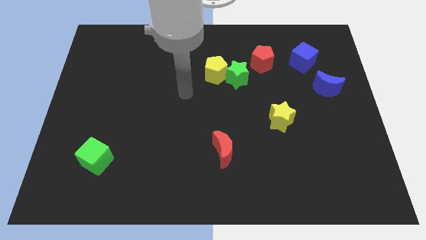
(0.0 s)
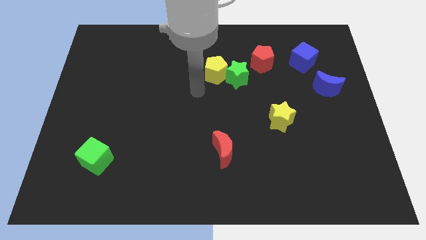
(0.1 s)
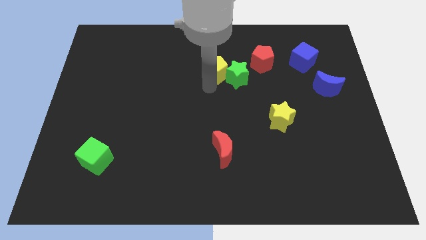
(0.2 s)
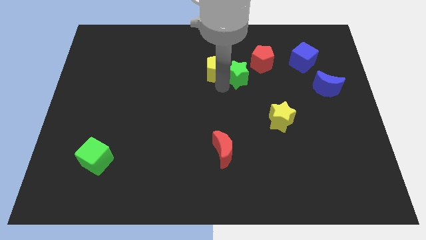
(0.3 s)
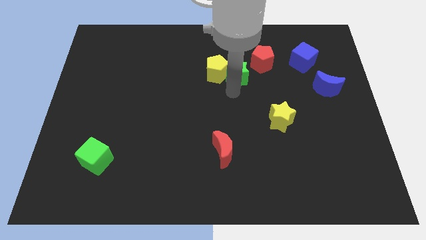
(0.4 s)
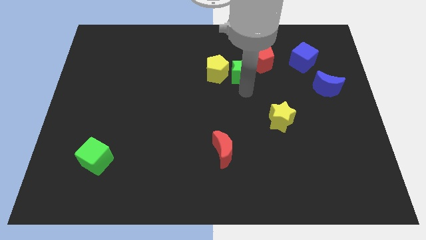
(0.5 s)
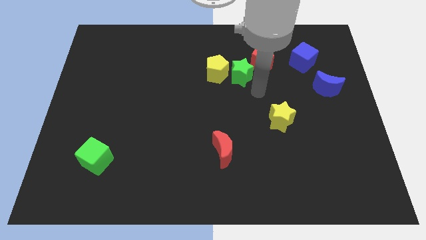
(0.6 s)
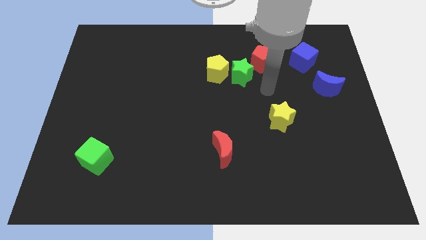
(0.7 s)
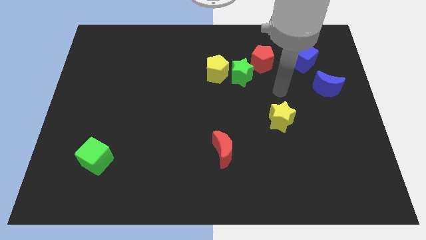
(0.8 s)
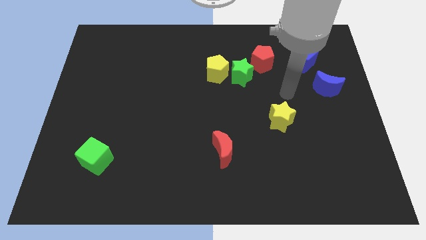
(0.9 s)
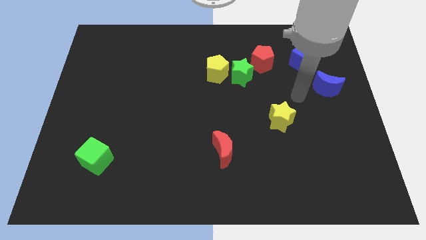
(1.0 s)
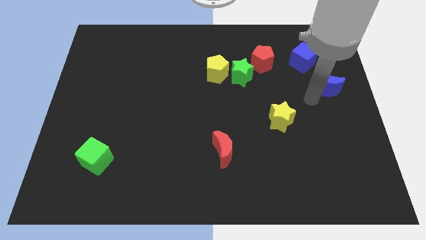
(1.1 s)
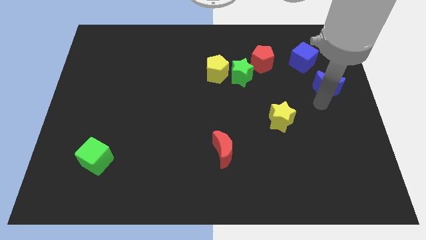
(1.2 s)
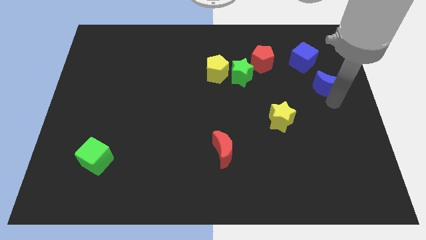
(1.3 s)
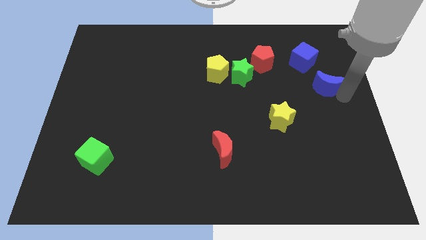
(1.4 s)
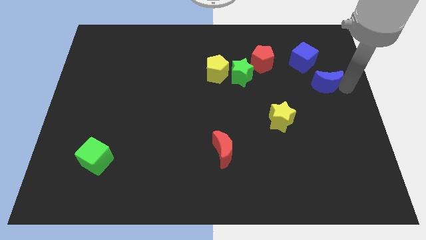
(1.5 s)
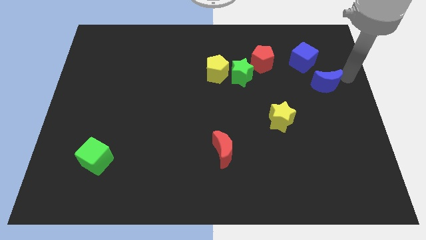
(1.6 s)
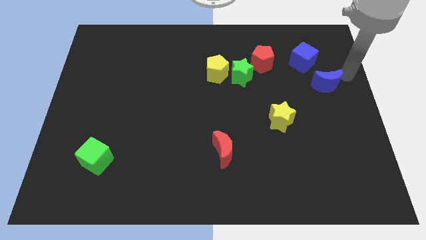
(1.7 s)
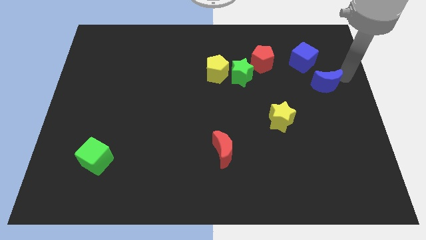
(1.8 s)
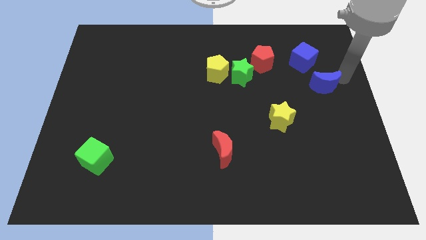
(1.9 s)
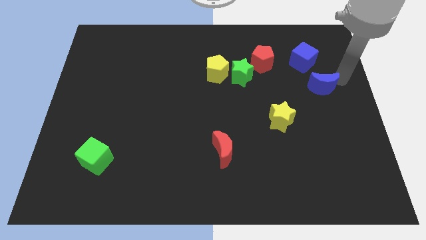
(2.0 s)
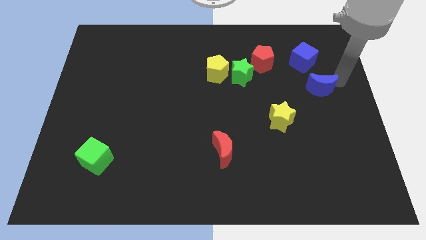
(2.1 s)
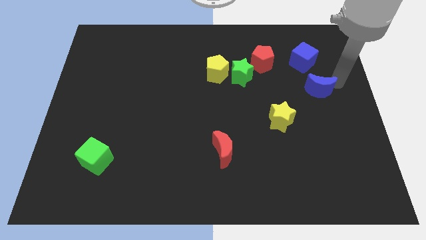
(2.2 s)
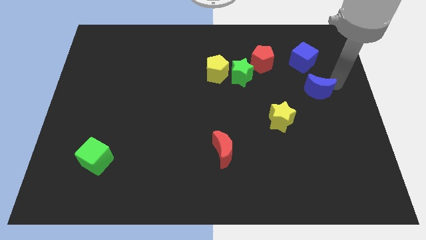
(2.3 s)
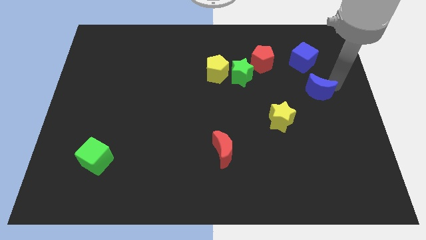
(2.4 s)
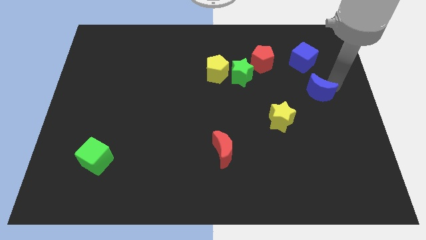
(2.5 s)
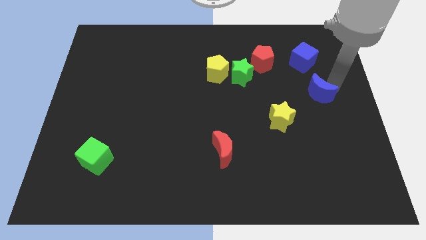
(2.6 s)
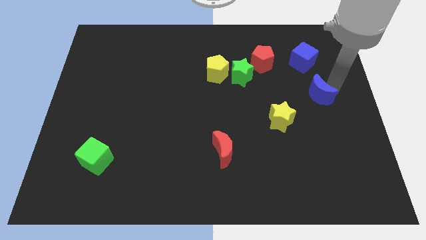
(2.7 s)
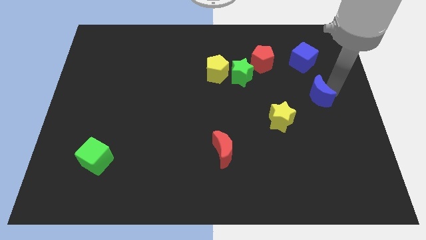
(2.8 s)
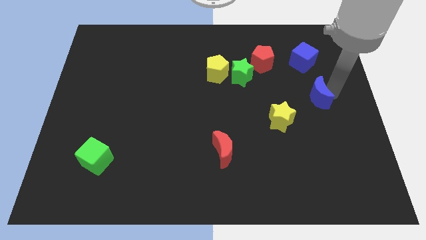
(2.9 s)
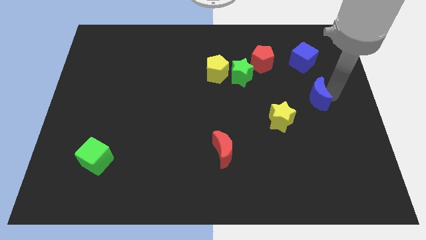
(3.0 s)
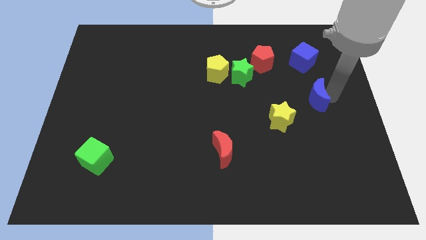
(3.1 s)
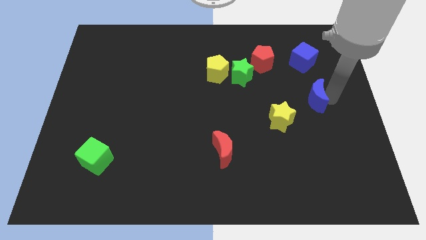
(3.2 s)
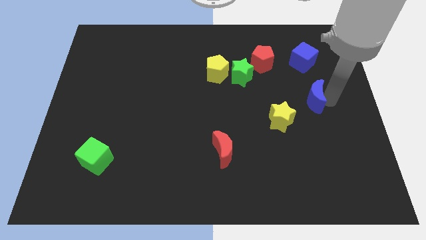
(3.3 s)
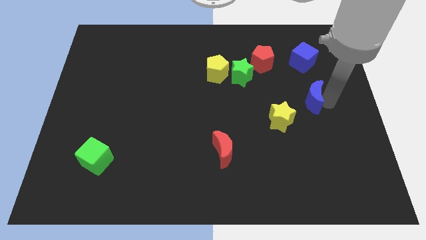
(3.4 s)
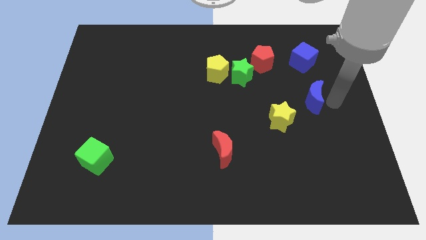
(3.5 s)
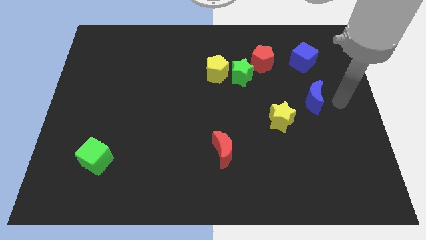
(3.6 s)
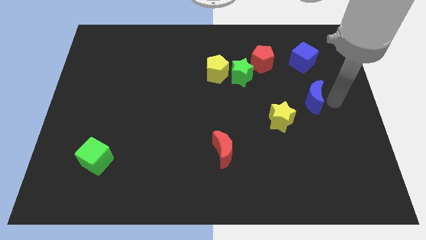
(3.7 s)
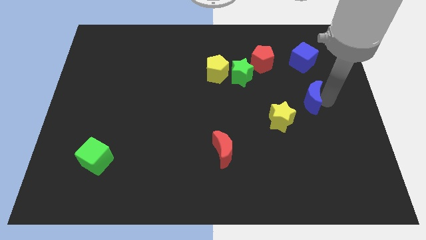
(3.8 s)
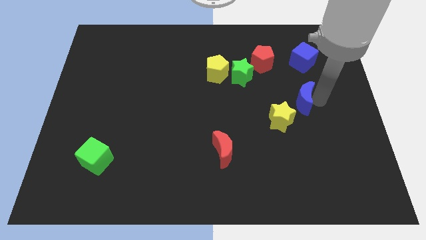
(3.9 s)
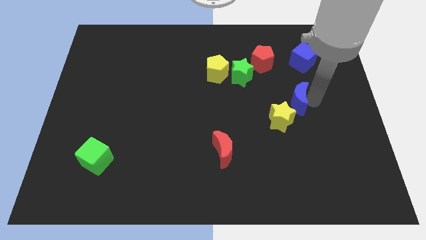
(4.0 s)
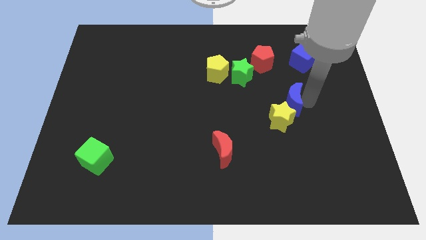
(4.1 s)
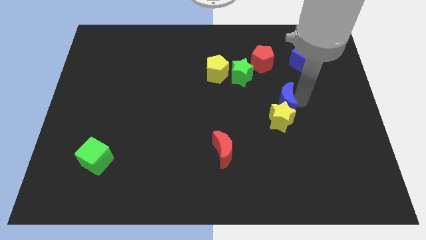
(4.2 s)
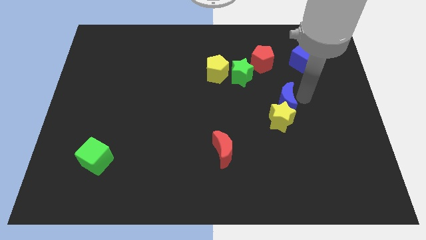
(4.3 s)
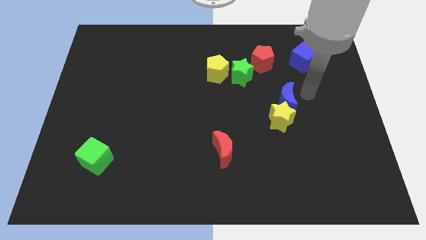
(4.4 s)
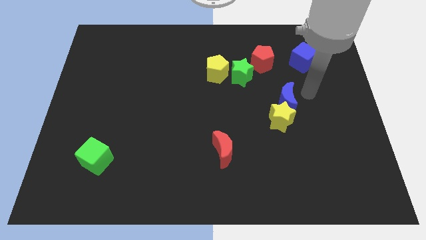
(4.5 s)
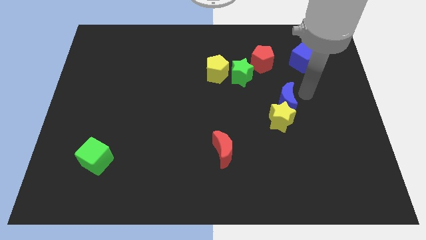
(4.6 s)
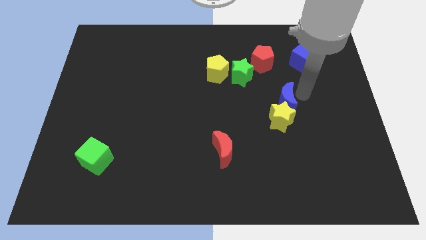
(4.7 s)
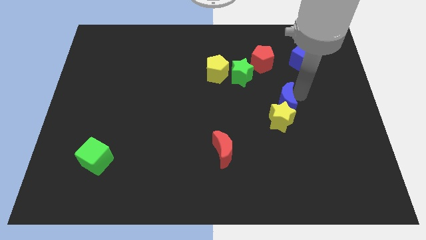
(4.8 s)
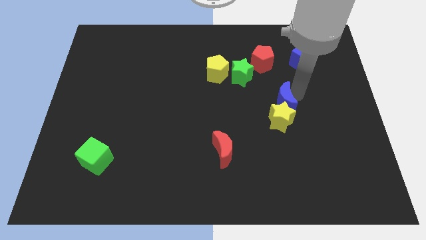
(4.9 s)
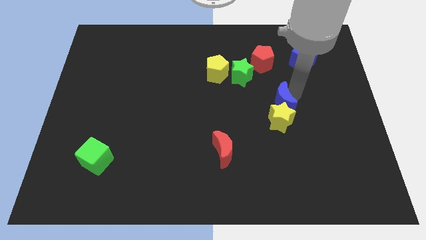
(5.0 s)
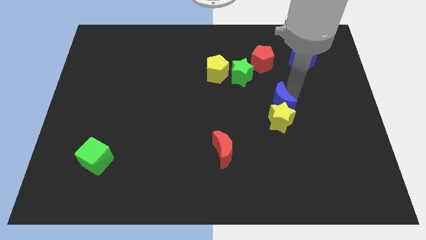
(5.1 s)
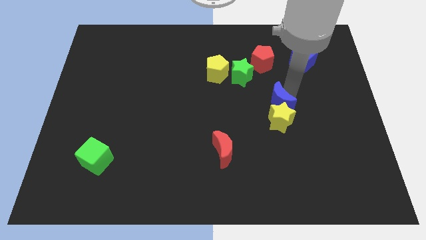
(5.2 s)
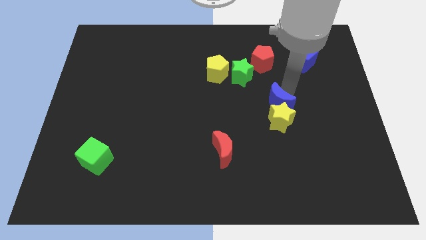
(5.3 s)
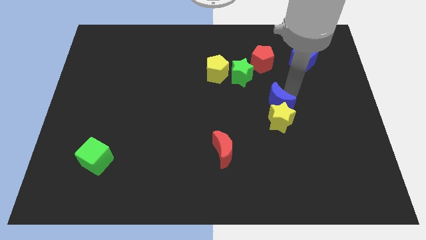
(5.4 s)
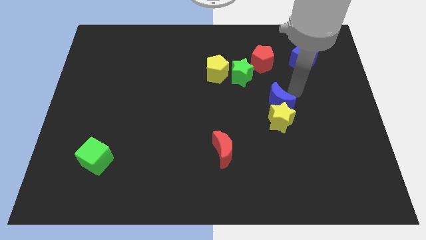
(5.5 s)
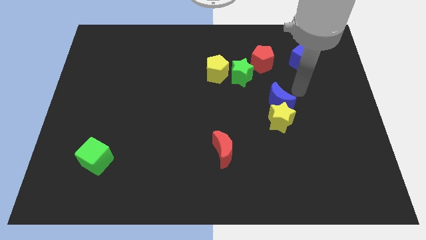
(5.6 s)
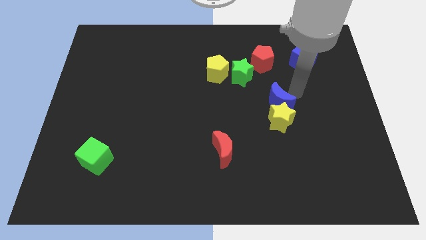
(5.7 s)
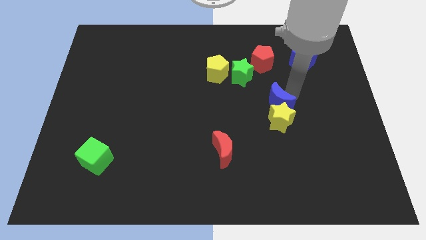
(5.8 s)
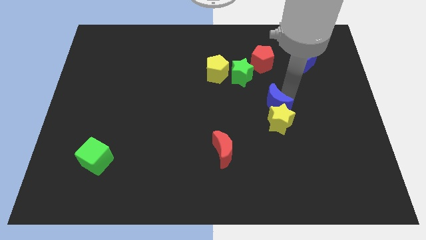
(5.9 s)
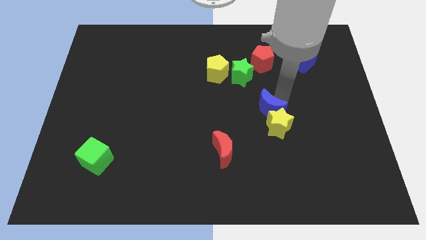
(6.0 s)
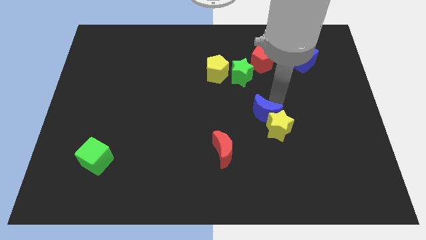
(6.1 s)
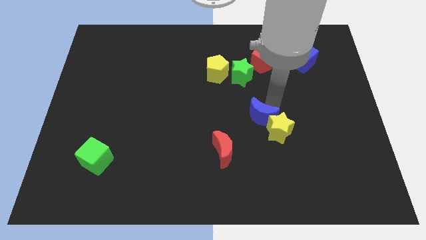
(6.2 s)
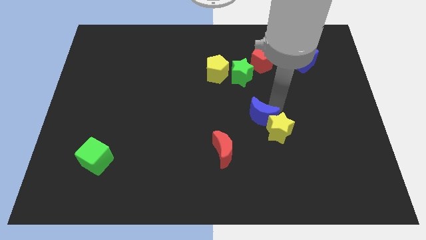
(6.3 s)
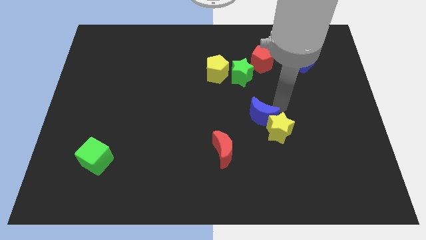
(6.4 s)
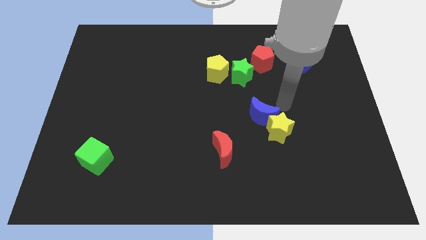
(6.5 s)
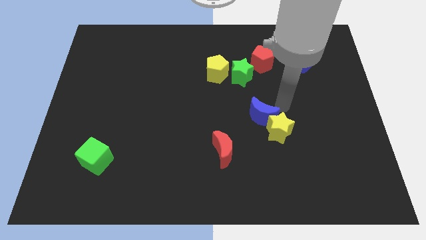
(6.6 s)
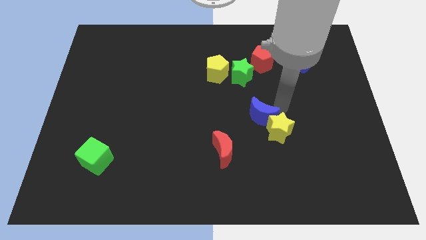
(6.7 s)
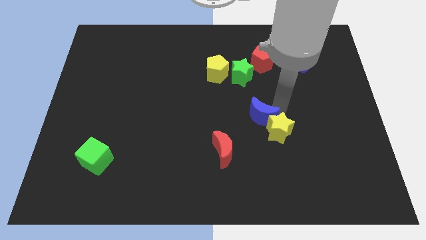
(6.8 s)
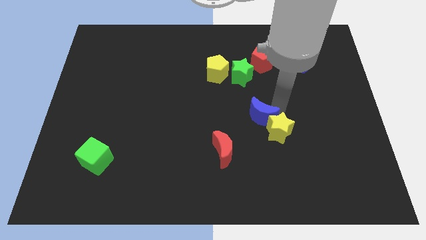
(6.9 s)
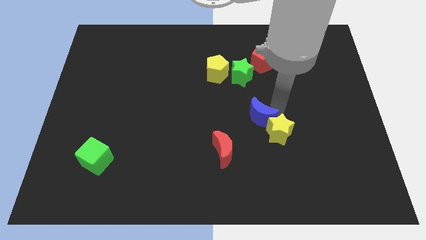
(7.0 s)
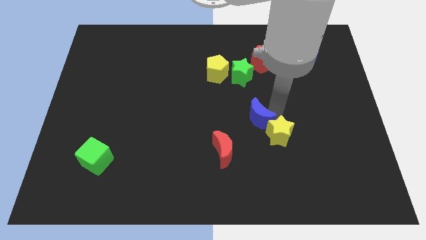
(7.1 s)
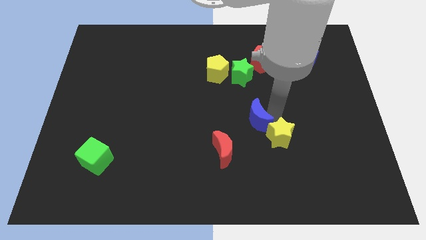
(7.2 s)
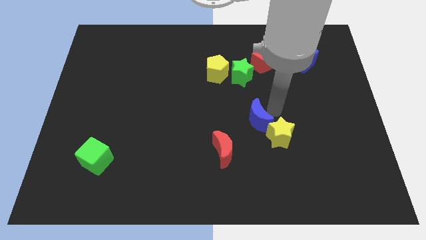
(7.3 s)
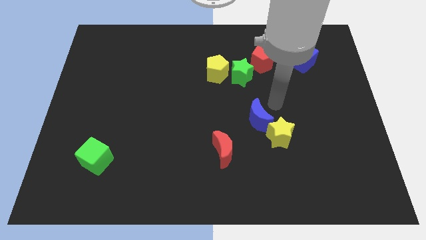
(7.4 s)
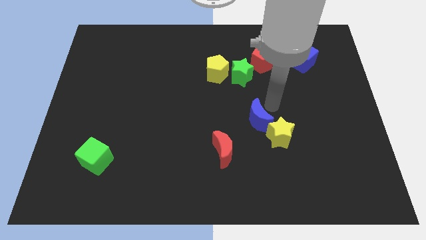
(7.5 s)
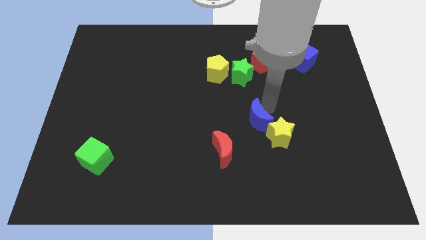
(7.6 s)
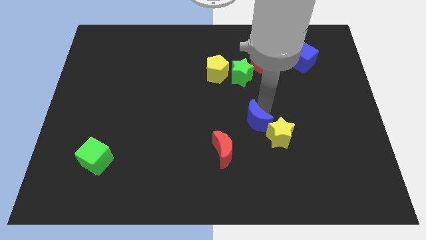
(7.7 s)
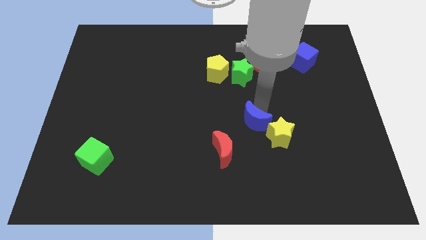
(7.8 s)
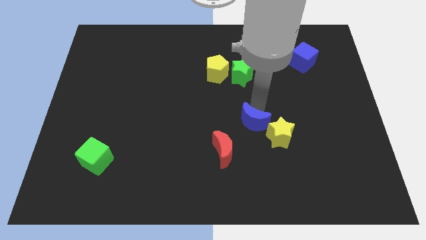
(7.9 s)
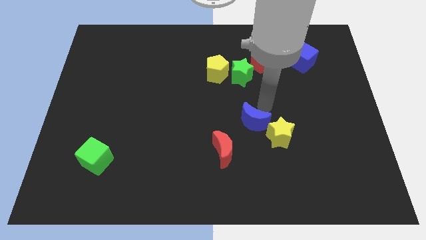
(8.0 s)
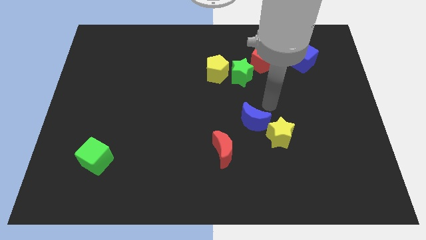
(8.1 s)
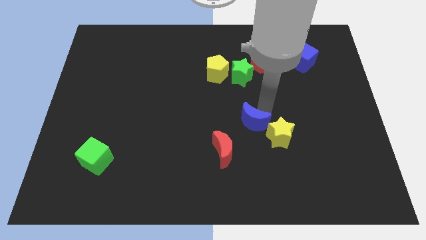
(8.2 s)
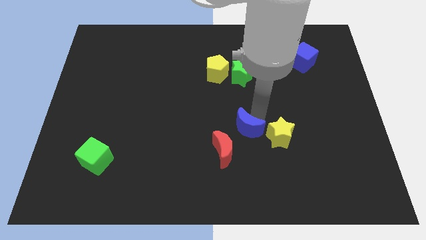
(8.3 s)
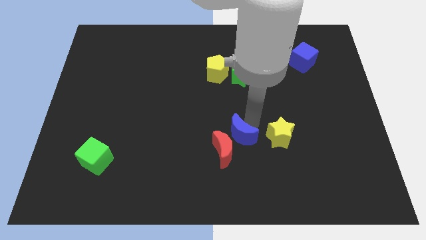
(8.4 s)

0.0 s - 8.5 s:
put the blue moon next to the red moon
